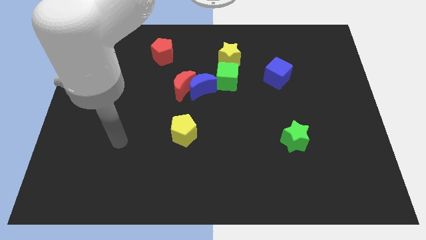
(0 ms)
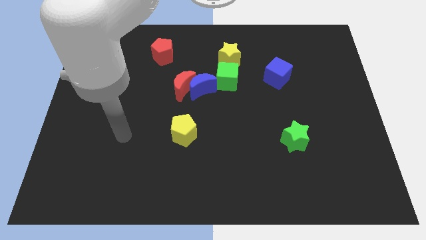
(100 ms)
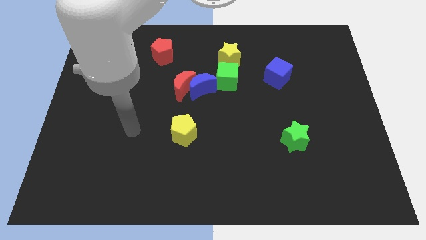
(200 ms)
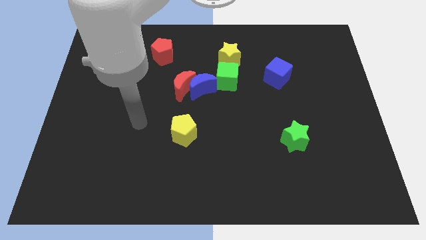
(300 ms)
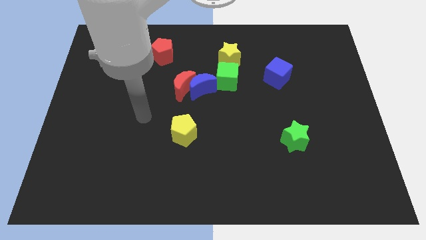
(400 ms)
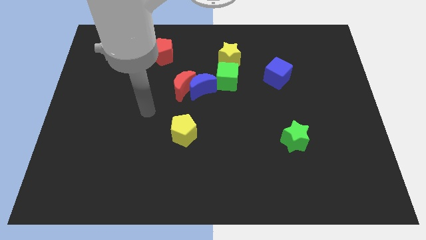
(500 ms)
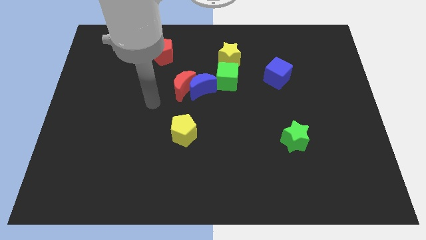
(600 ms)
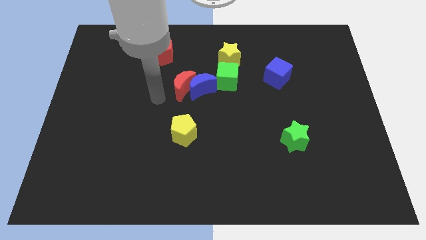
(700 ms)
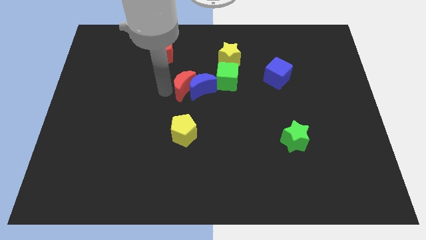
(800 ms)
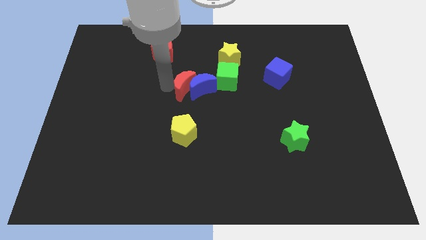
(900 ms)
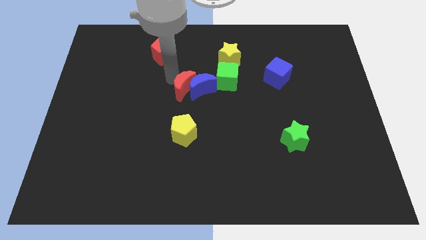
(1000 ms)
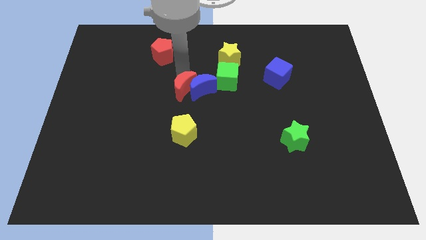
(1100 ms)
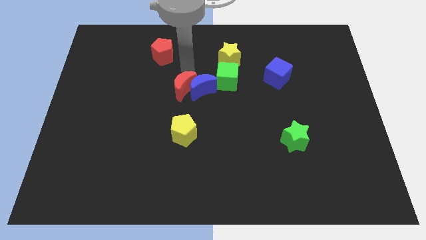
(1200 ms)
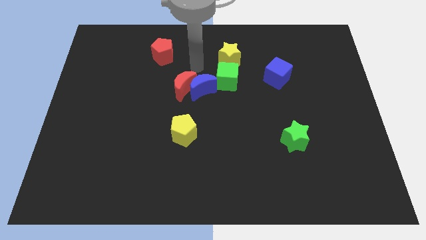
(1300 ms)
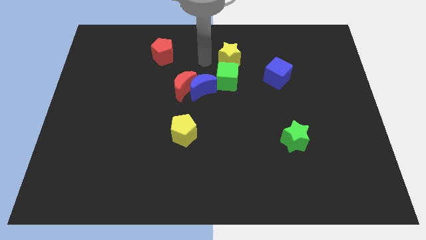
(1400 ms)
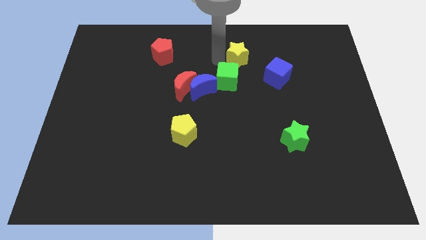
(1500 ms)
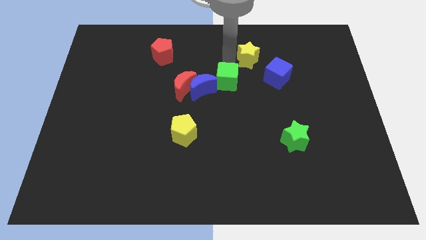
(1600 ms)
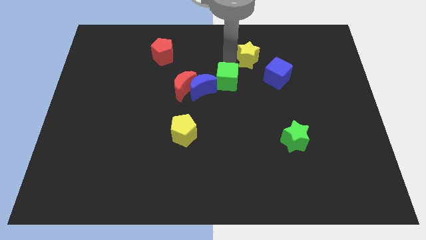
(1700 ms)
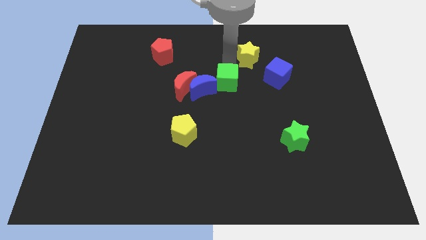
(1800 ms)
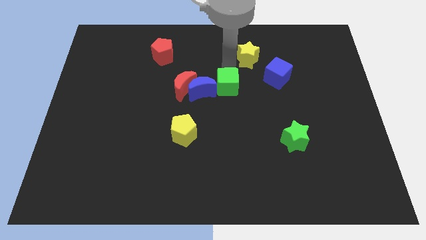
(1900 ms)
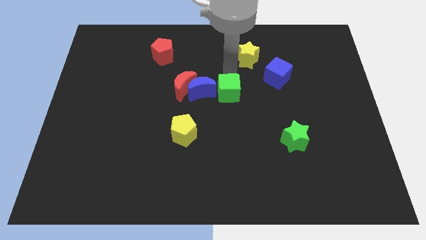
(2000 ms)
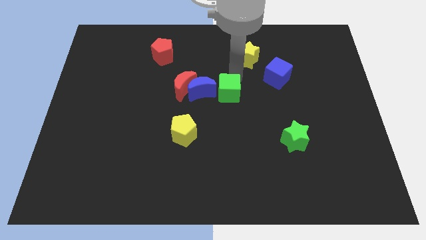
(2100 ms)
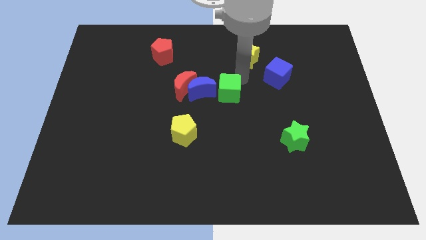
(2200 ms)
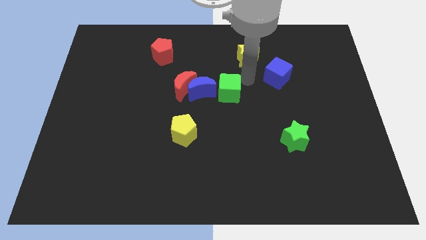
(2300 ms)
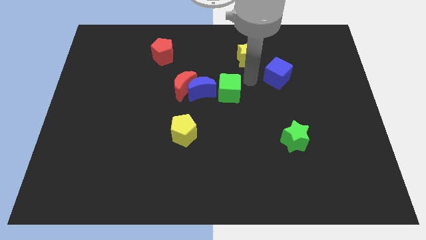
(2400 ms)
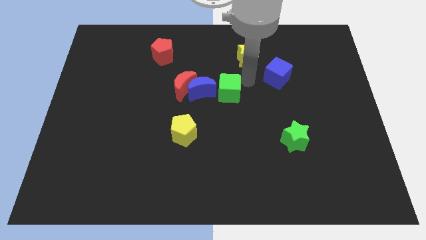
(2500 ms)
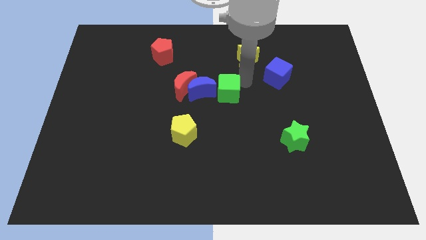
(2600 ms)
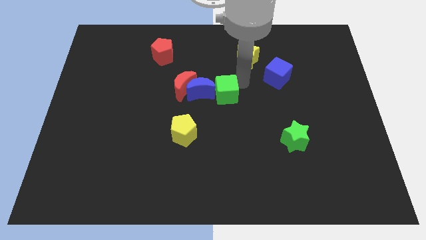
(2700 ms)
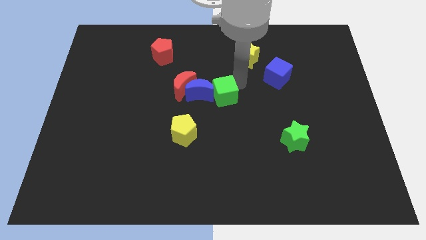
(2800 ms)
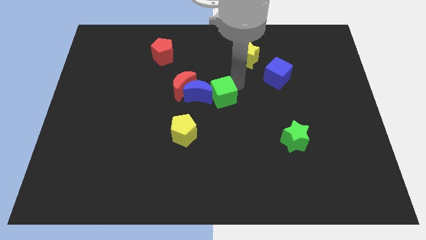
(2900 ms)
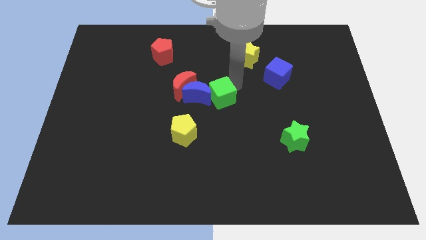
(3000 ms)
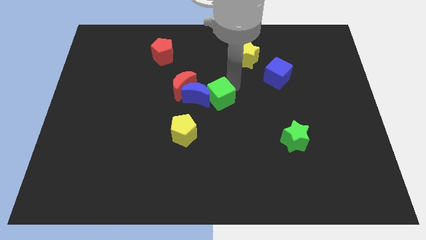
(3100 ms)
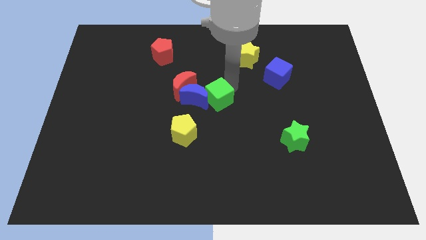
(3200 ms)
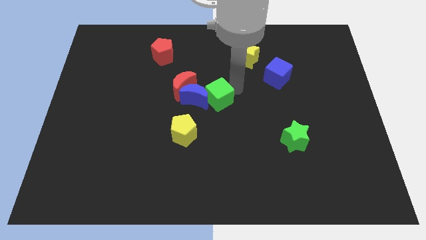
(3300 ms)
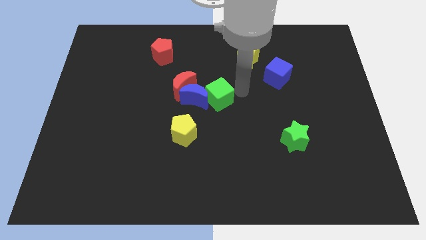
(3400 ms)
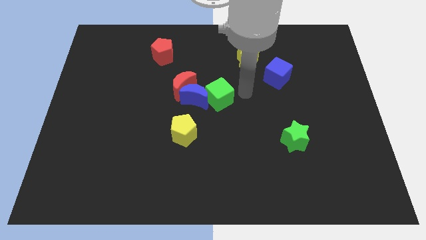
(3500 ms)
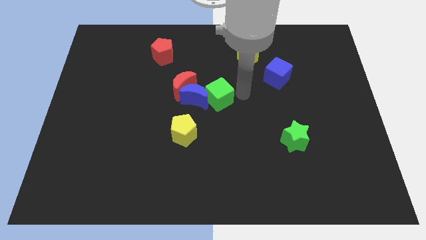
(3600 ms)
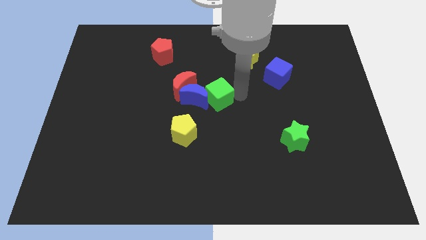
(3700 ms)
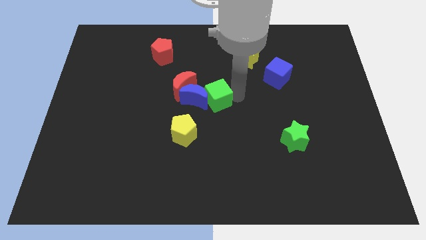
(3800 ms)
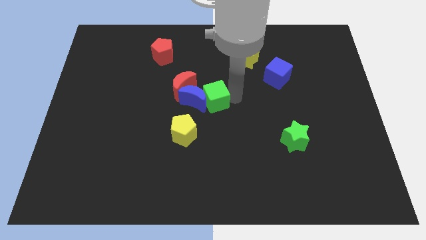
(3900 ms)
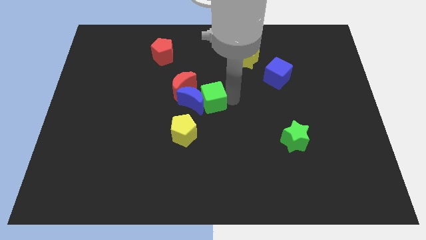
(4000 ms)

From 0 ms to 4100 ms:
push the green cube a little bit downwards and then to the left

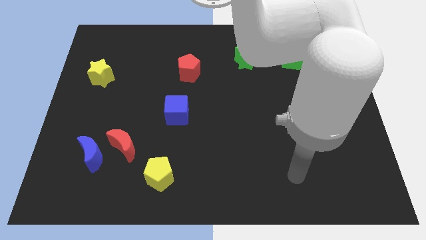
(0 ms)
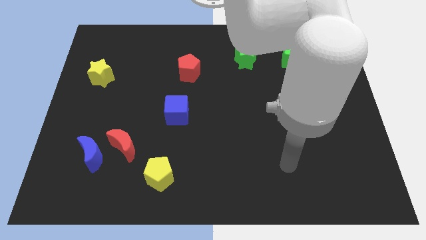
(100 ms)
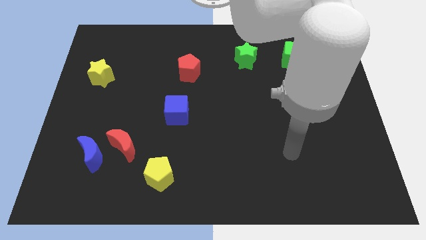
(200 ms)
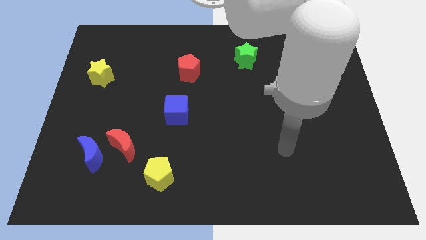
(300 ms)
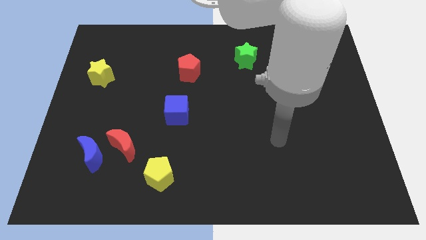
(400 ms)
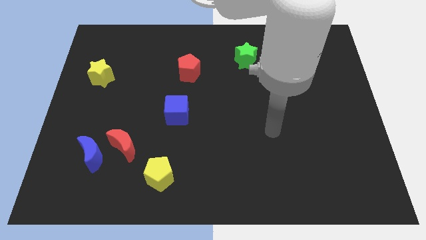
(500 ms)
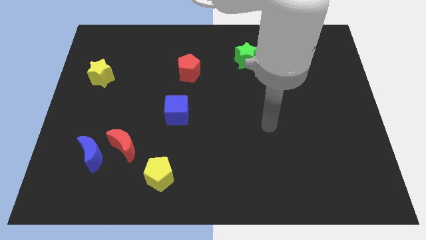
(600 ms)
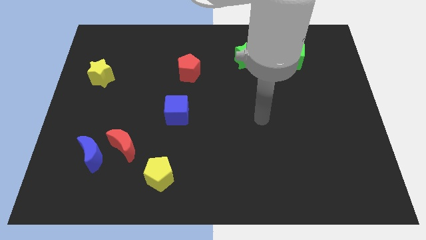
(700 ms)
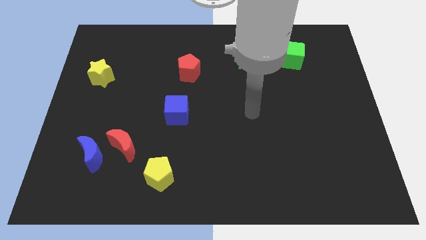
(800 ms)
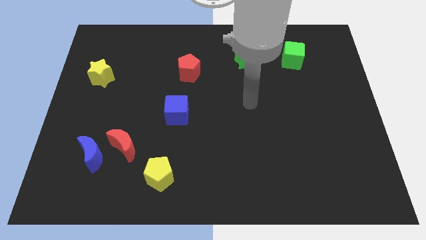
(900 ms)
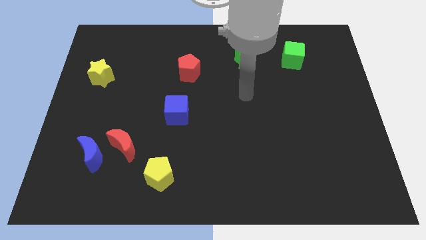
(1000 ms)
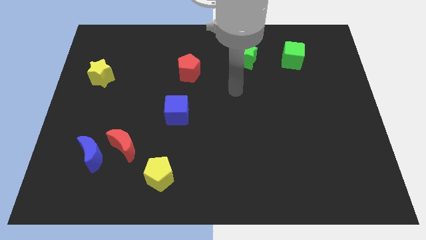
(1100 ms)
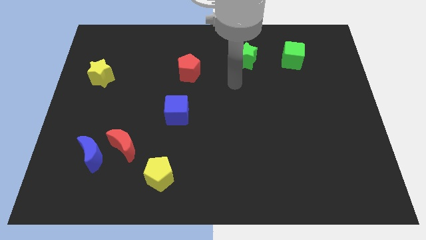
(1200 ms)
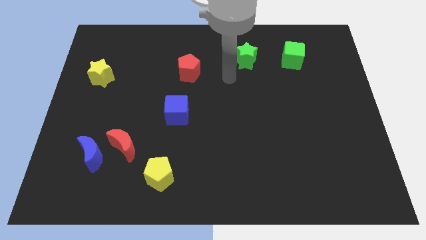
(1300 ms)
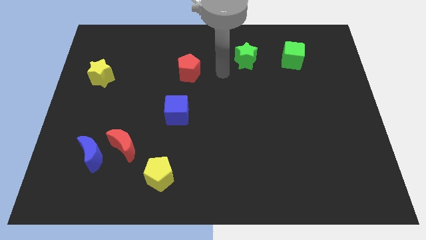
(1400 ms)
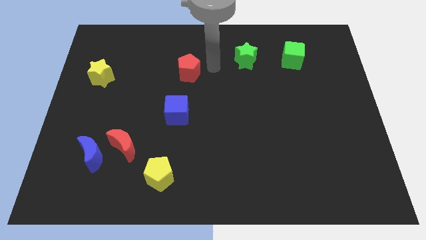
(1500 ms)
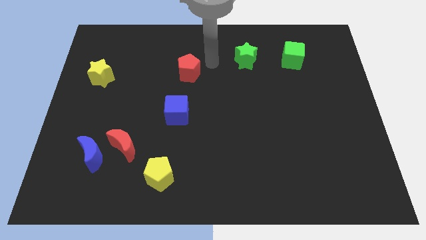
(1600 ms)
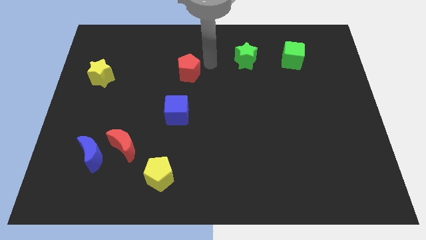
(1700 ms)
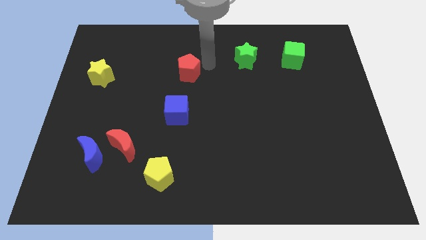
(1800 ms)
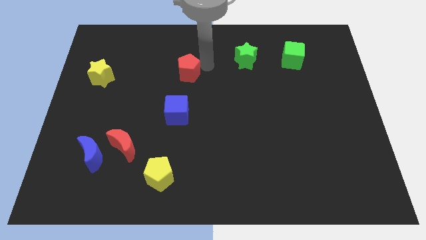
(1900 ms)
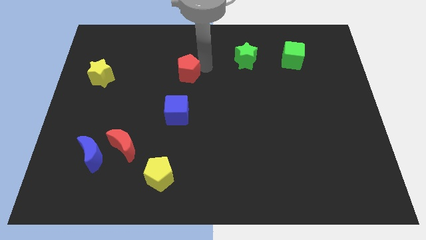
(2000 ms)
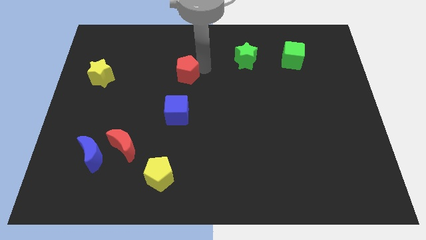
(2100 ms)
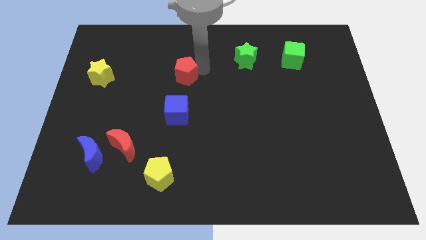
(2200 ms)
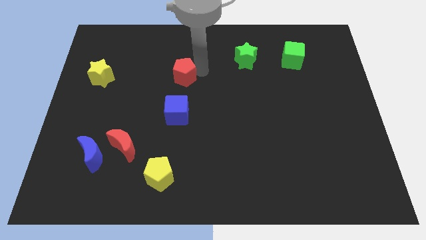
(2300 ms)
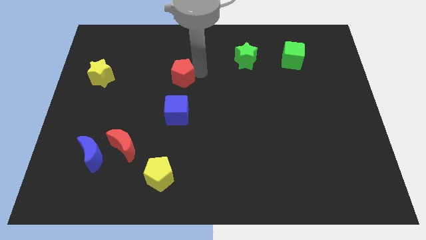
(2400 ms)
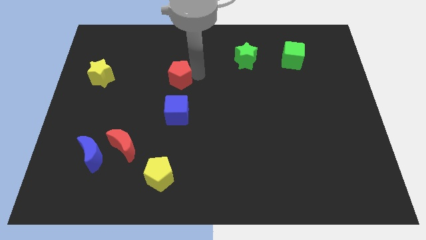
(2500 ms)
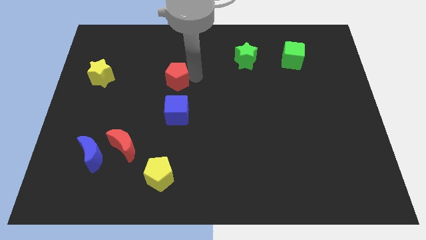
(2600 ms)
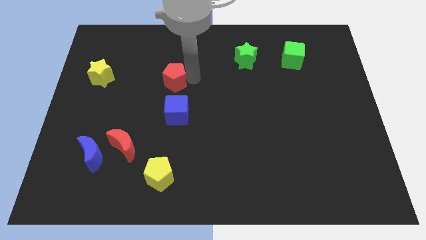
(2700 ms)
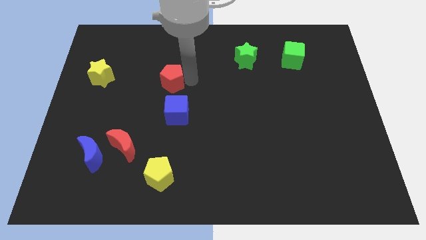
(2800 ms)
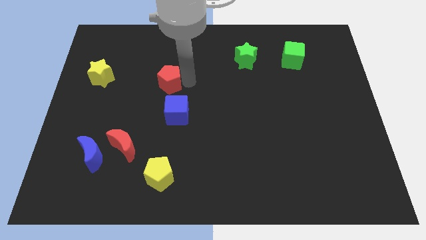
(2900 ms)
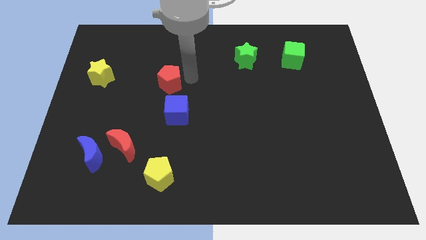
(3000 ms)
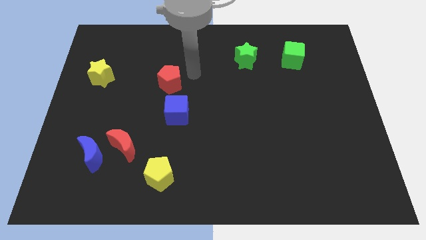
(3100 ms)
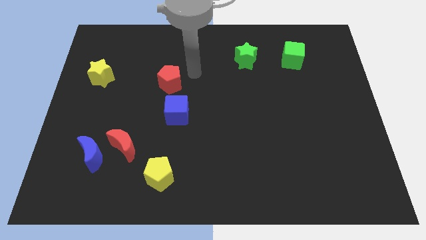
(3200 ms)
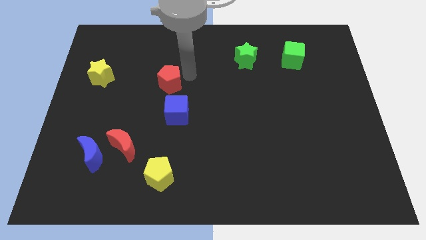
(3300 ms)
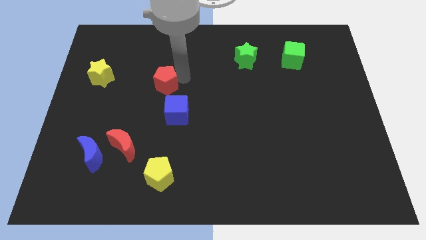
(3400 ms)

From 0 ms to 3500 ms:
slide the red pentagon a bit downwards and left

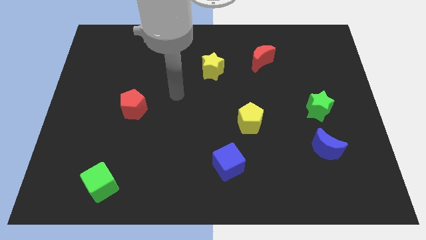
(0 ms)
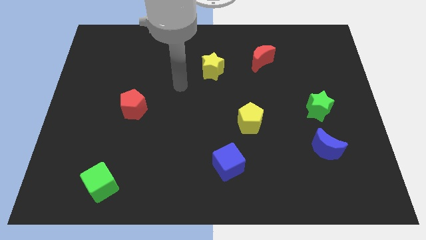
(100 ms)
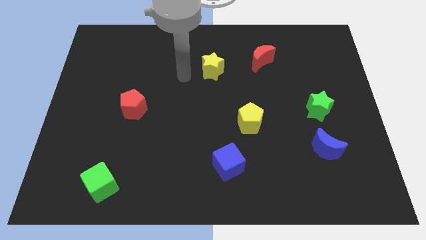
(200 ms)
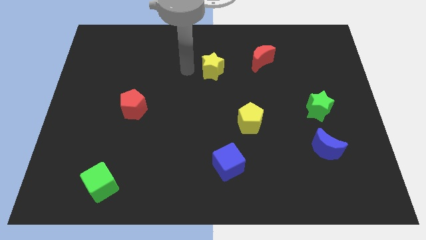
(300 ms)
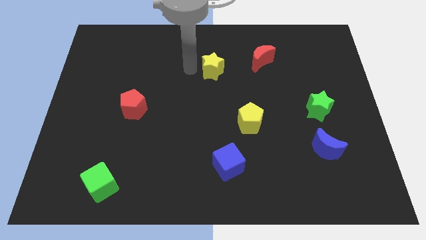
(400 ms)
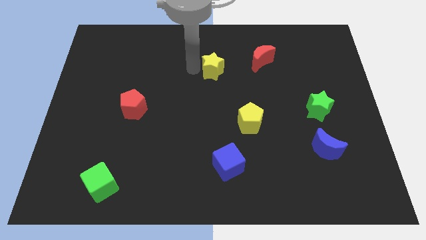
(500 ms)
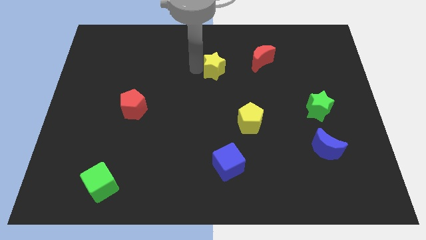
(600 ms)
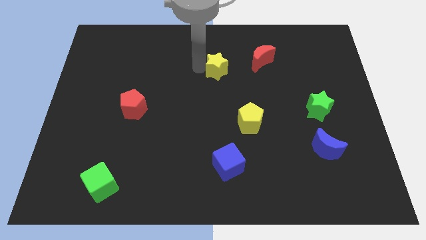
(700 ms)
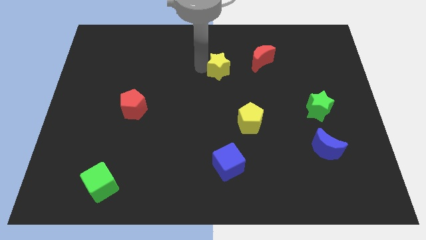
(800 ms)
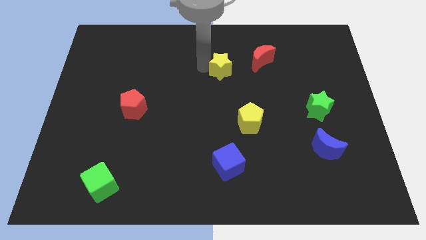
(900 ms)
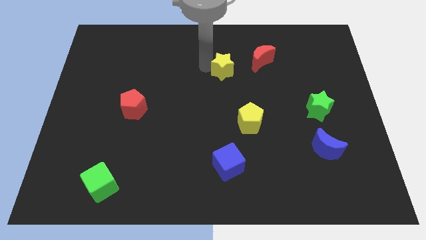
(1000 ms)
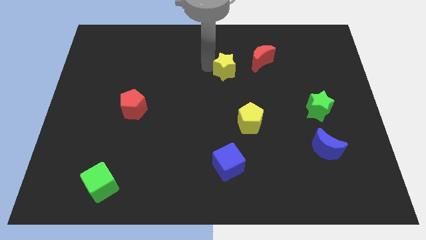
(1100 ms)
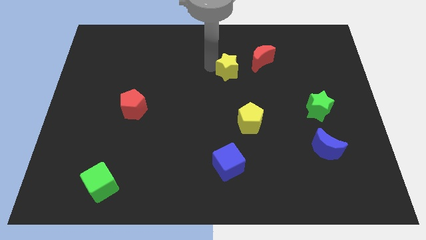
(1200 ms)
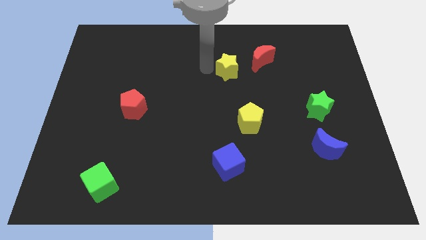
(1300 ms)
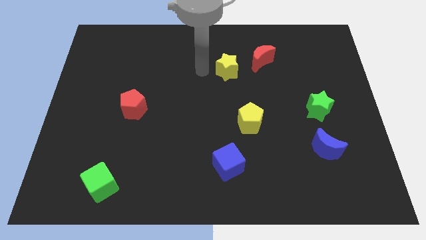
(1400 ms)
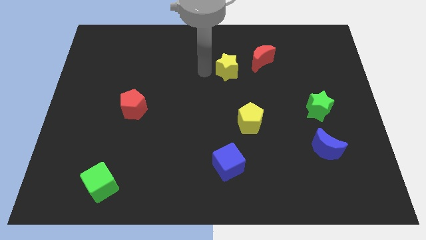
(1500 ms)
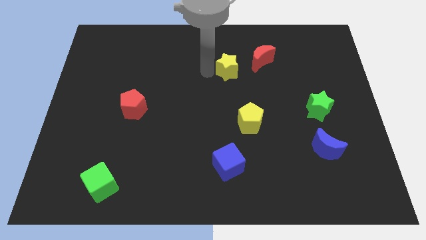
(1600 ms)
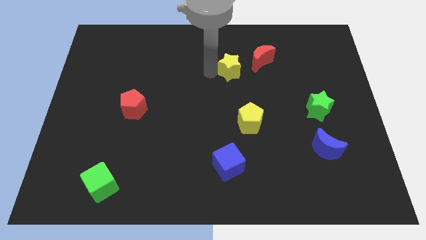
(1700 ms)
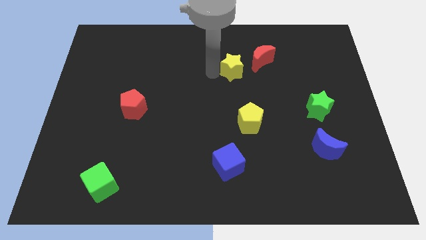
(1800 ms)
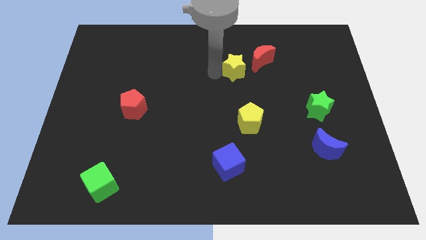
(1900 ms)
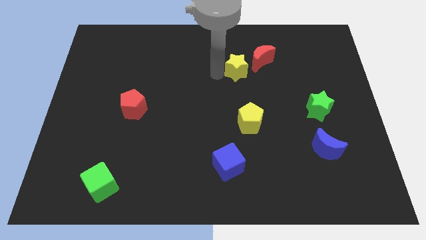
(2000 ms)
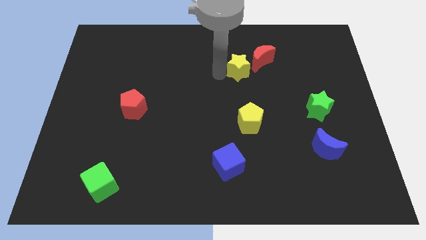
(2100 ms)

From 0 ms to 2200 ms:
slightly push the yellow star right
